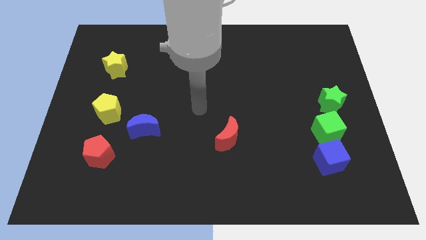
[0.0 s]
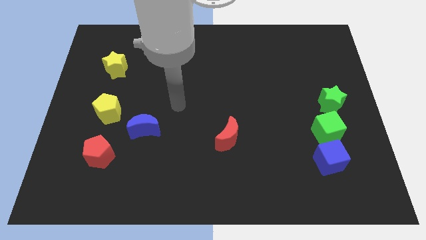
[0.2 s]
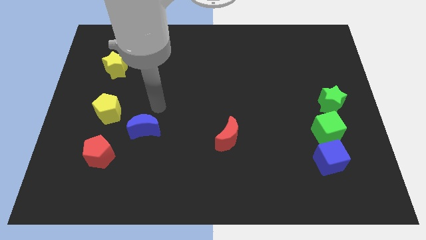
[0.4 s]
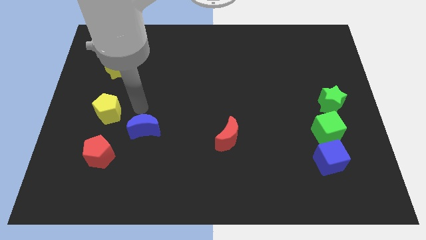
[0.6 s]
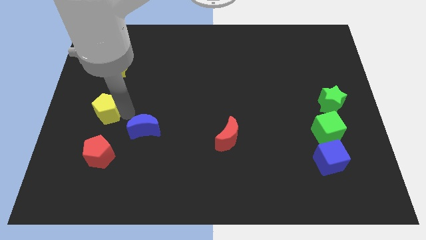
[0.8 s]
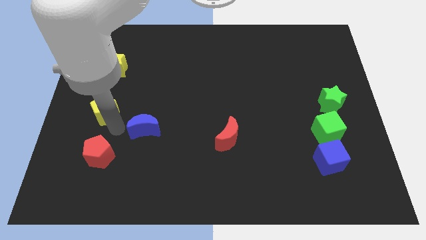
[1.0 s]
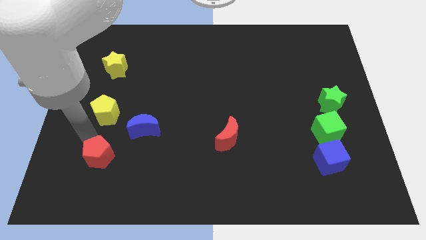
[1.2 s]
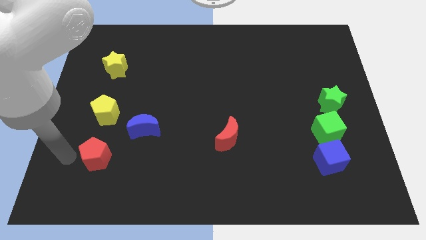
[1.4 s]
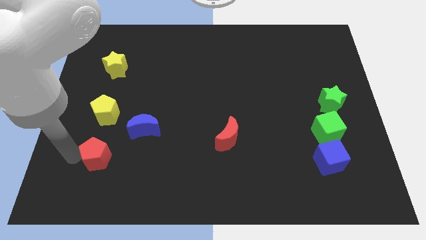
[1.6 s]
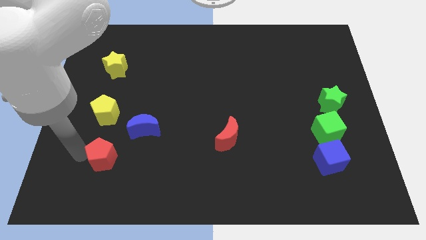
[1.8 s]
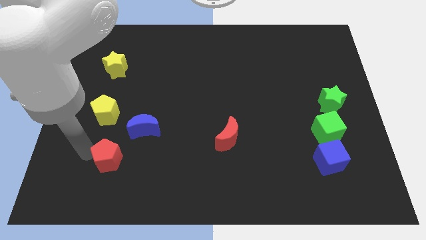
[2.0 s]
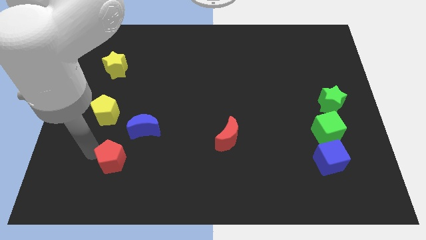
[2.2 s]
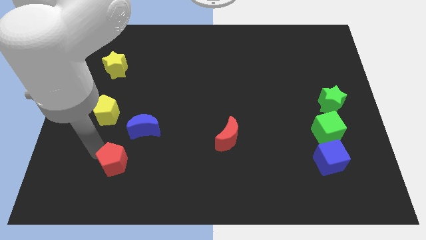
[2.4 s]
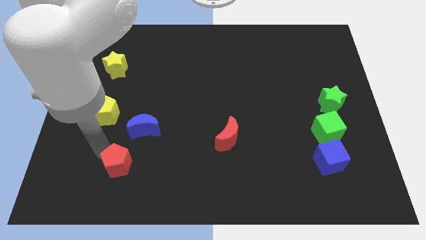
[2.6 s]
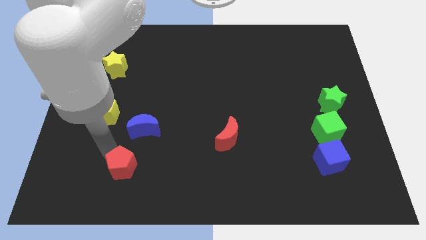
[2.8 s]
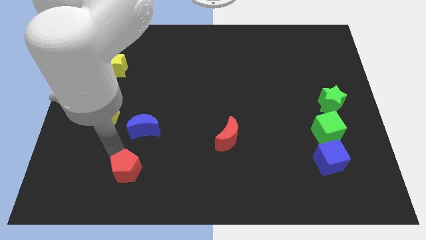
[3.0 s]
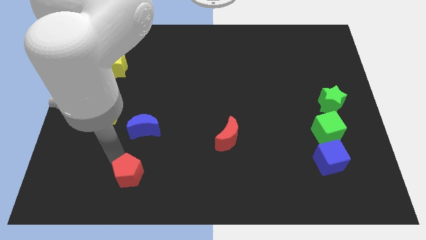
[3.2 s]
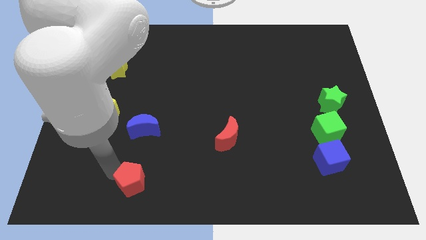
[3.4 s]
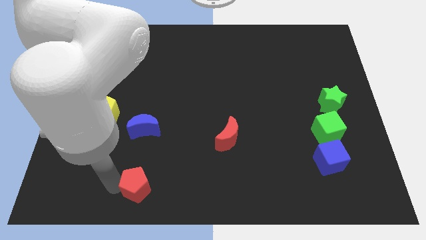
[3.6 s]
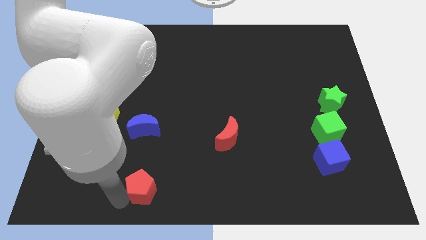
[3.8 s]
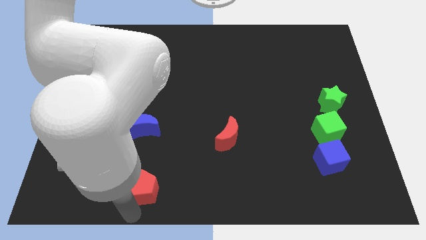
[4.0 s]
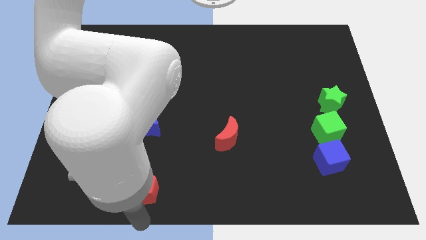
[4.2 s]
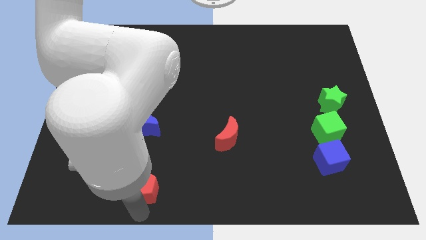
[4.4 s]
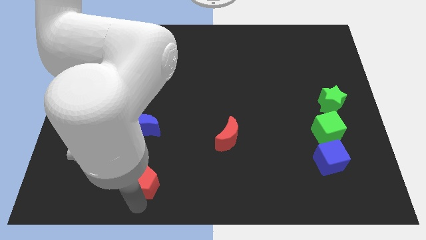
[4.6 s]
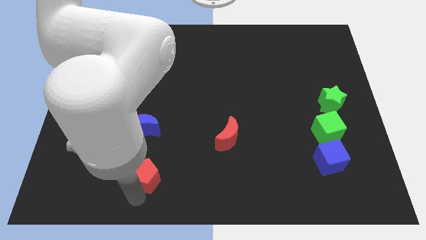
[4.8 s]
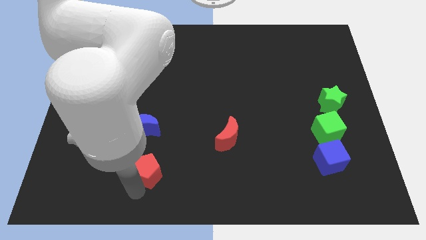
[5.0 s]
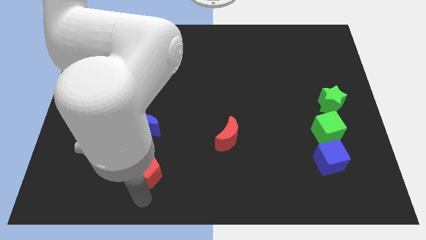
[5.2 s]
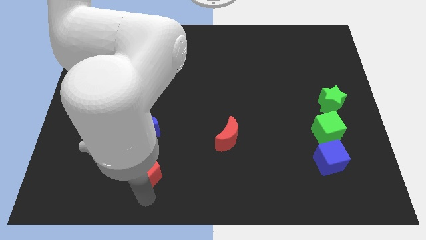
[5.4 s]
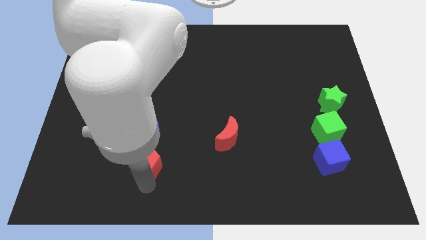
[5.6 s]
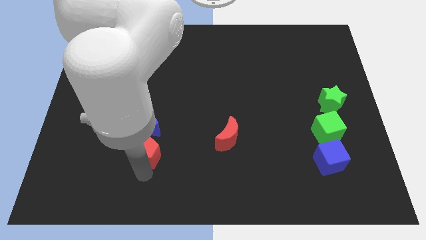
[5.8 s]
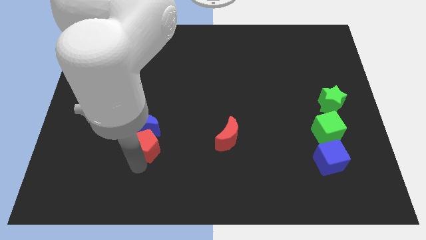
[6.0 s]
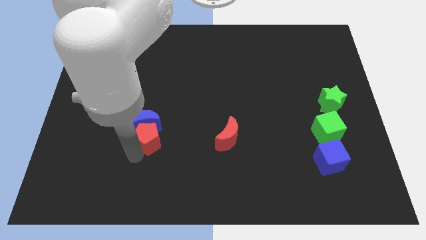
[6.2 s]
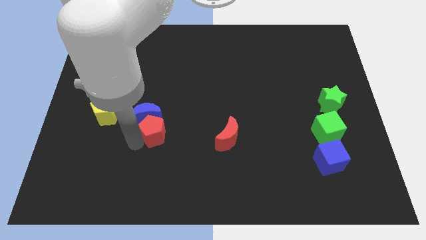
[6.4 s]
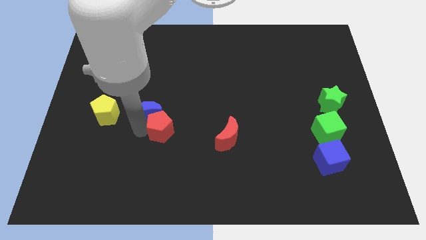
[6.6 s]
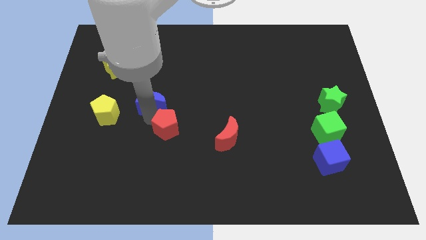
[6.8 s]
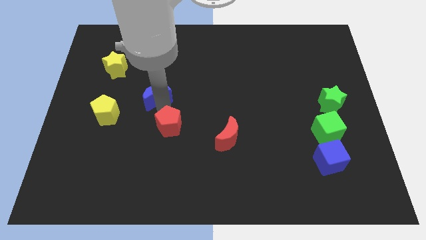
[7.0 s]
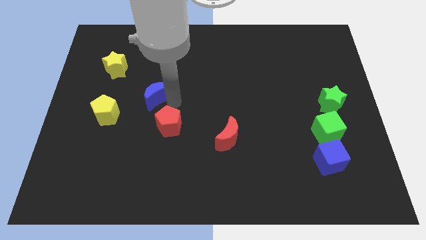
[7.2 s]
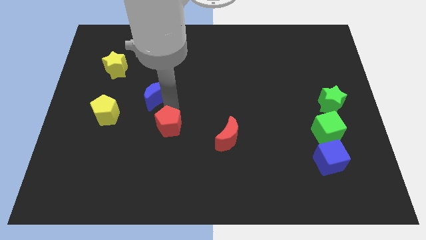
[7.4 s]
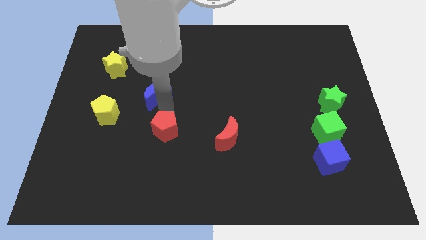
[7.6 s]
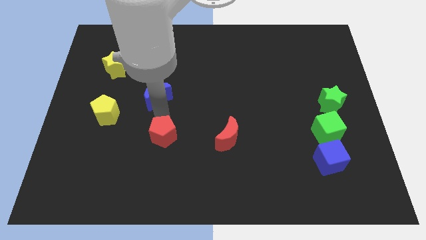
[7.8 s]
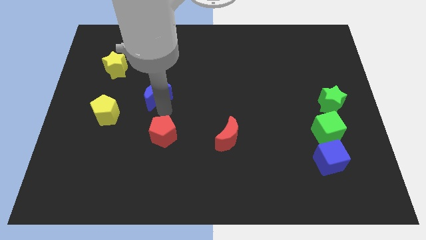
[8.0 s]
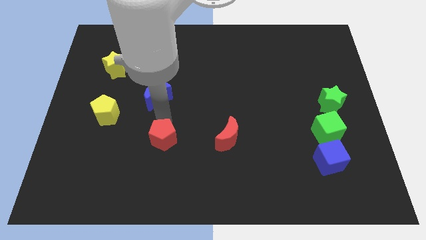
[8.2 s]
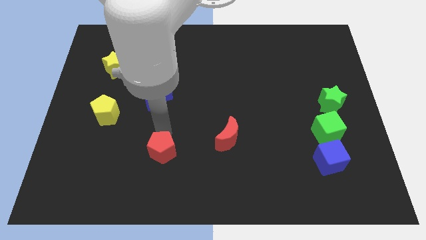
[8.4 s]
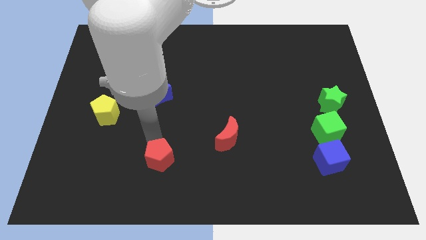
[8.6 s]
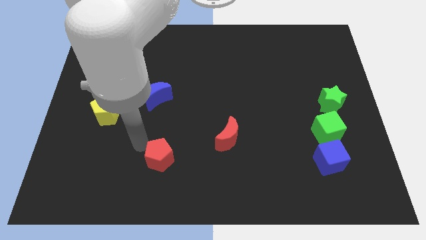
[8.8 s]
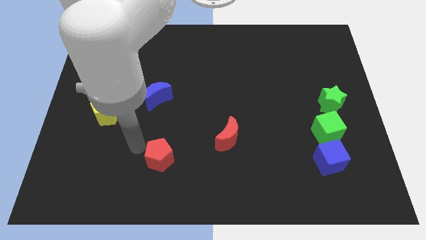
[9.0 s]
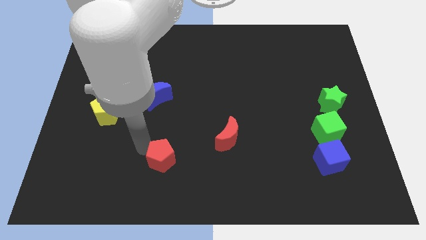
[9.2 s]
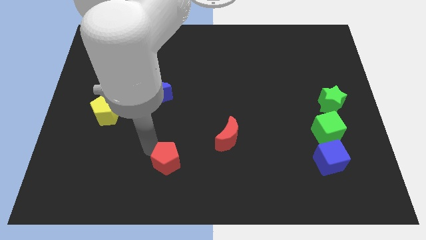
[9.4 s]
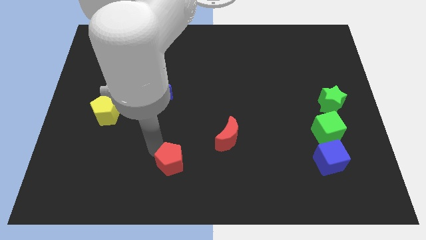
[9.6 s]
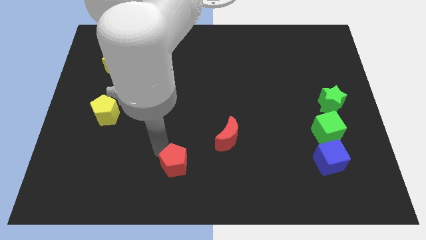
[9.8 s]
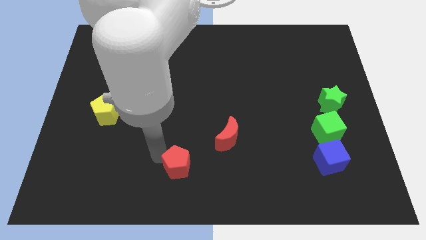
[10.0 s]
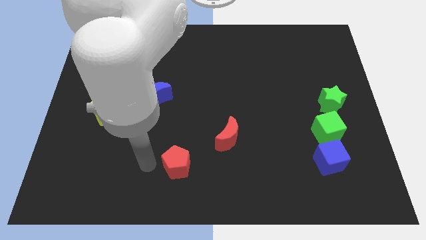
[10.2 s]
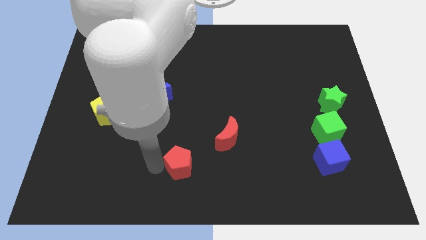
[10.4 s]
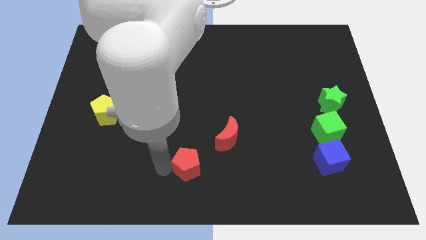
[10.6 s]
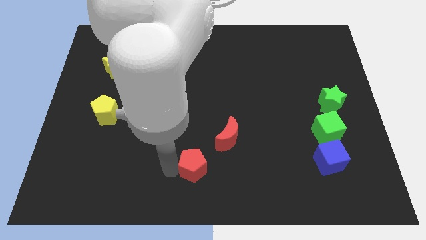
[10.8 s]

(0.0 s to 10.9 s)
move the red pentagon to the right

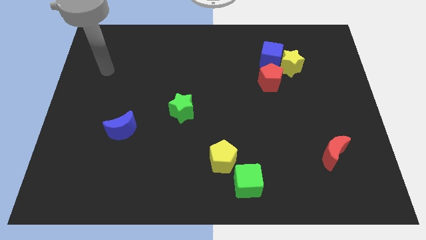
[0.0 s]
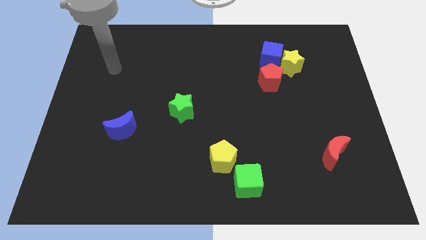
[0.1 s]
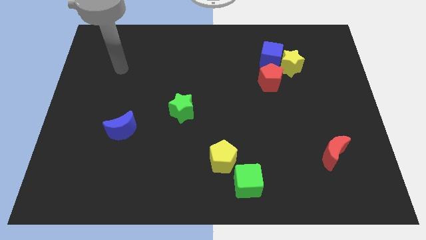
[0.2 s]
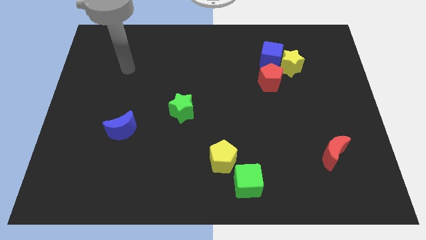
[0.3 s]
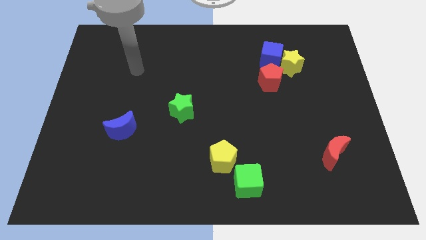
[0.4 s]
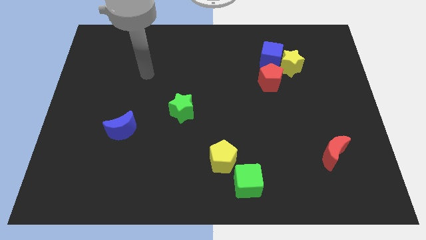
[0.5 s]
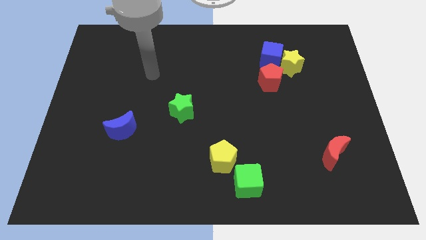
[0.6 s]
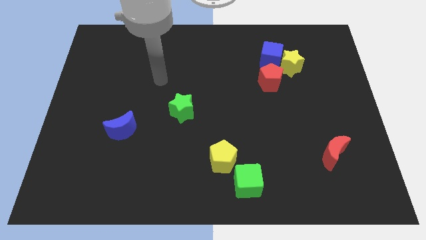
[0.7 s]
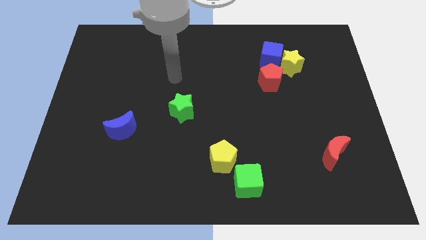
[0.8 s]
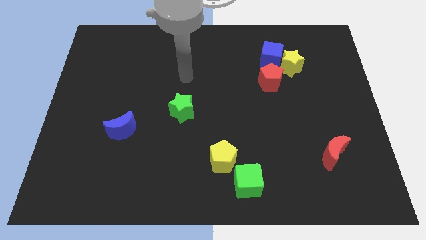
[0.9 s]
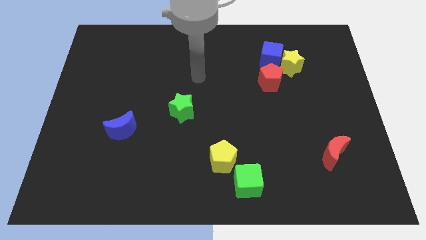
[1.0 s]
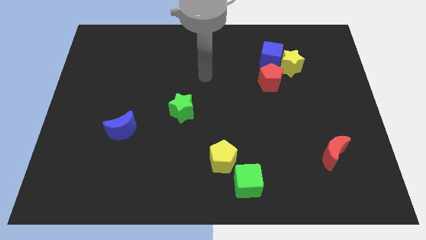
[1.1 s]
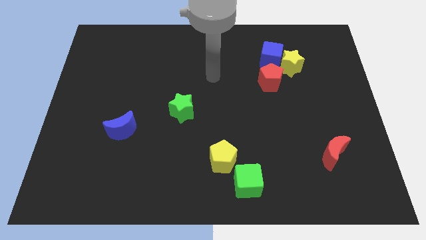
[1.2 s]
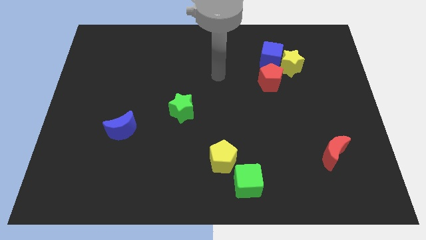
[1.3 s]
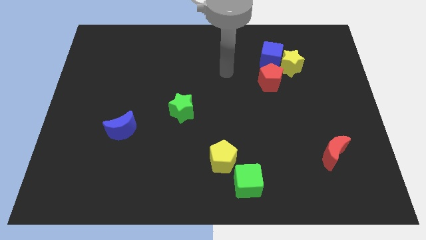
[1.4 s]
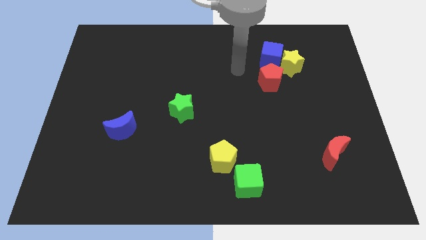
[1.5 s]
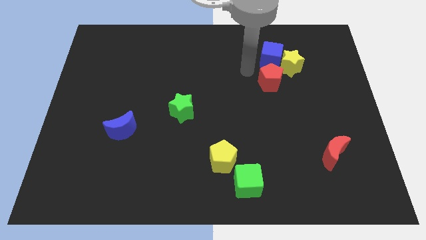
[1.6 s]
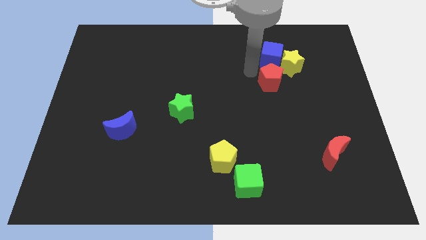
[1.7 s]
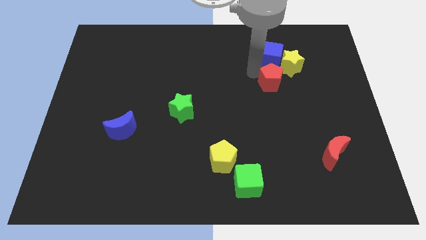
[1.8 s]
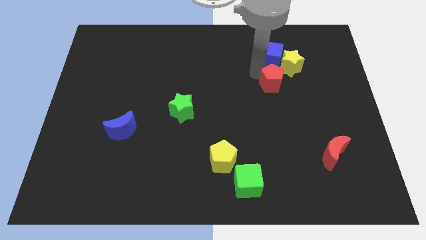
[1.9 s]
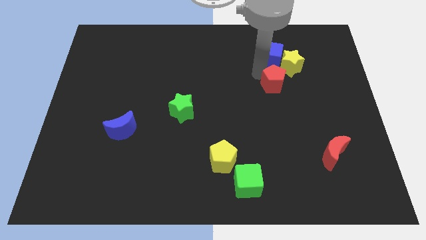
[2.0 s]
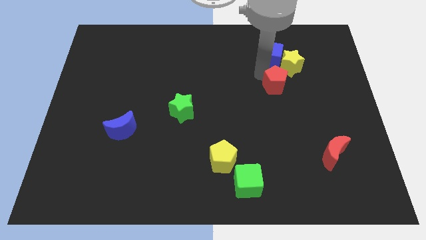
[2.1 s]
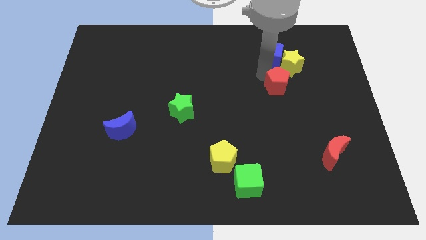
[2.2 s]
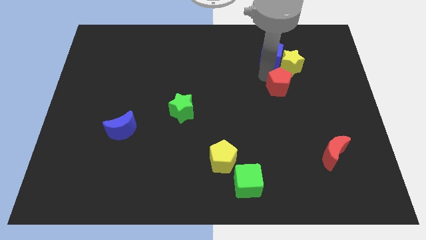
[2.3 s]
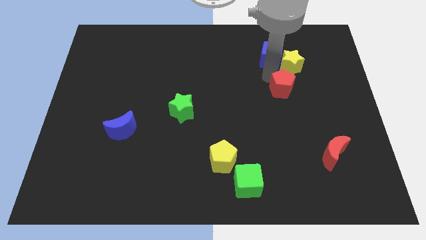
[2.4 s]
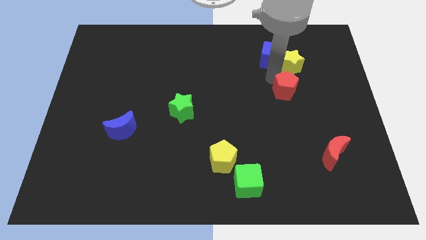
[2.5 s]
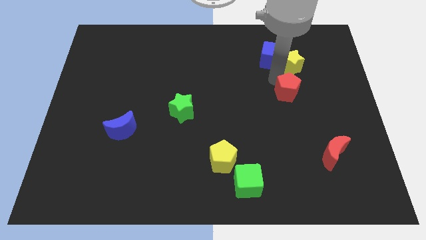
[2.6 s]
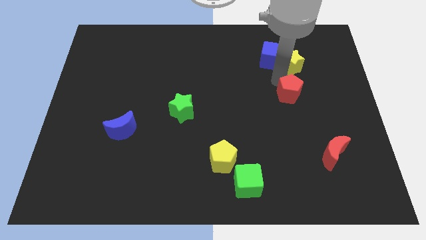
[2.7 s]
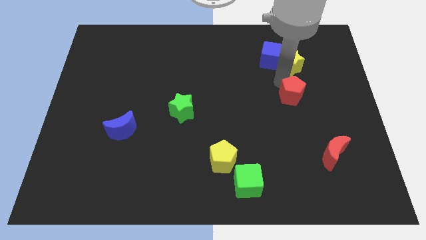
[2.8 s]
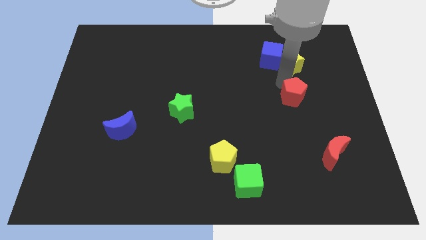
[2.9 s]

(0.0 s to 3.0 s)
slightly move the red pentagon down and then right
